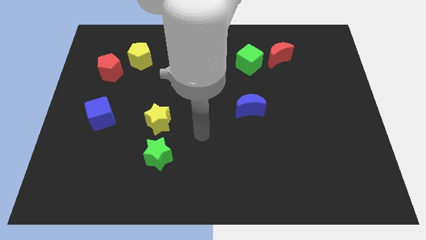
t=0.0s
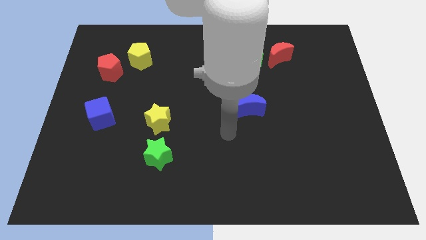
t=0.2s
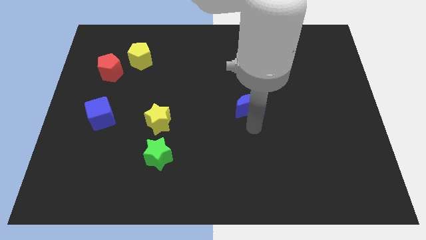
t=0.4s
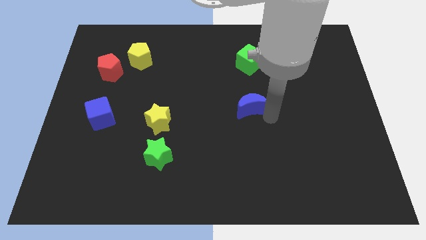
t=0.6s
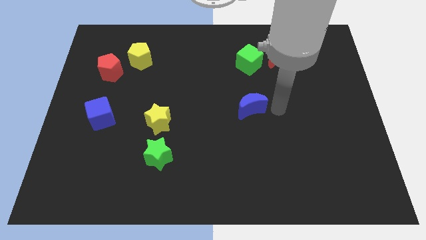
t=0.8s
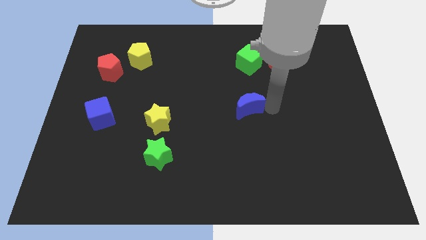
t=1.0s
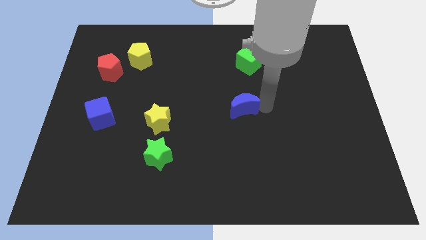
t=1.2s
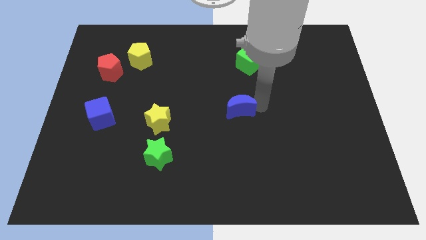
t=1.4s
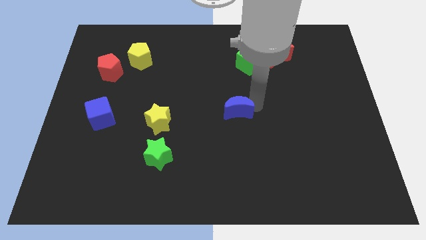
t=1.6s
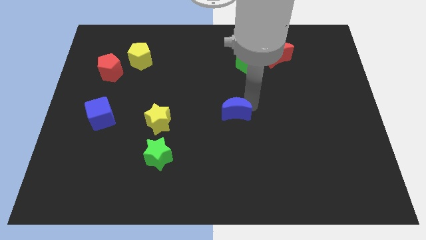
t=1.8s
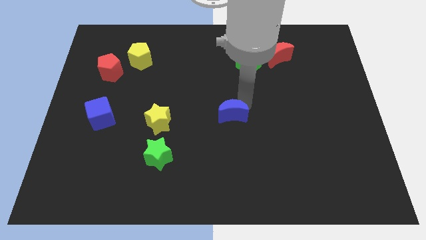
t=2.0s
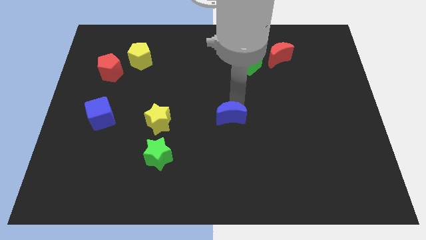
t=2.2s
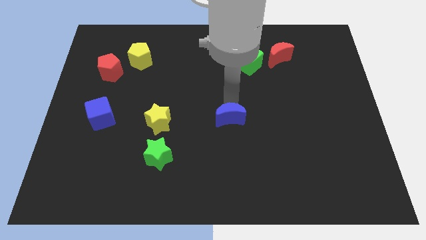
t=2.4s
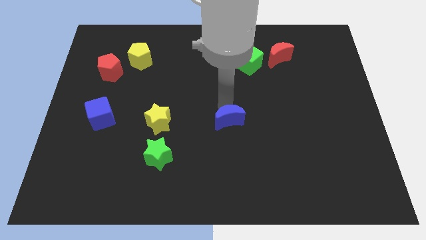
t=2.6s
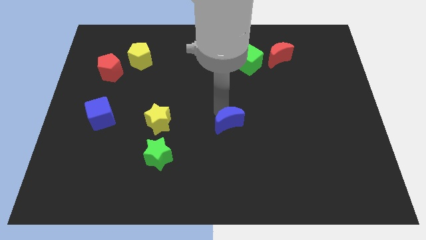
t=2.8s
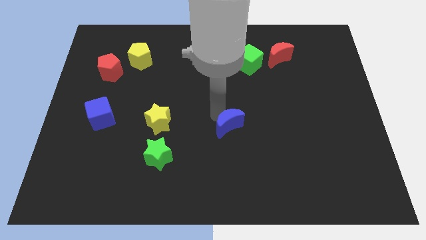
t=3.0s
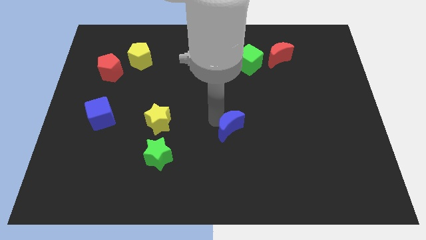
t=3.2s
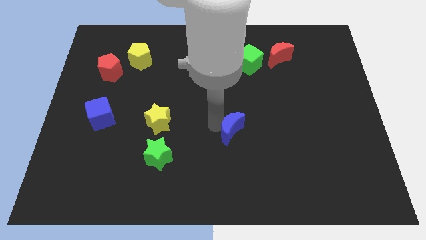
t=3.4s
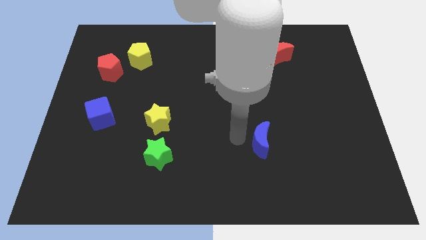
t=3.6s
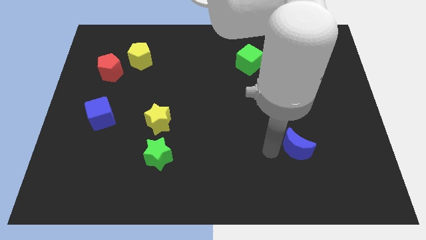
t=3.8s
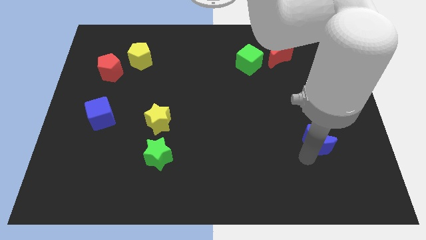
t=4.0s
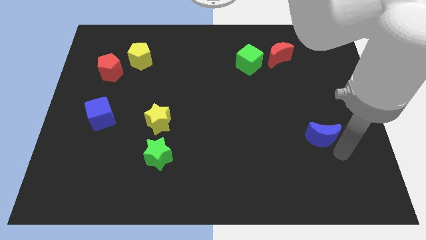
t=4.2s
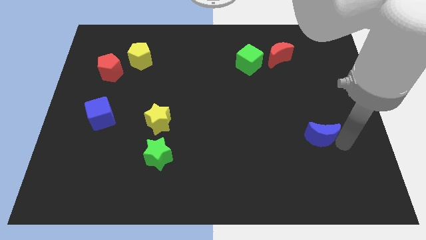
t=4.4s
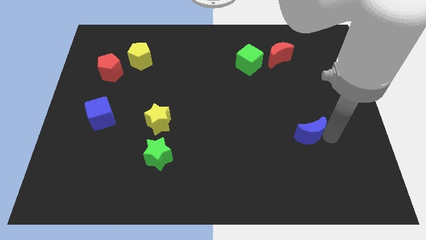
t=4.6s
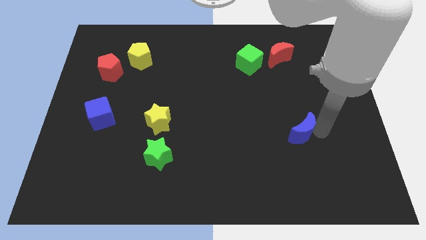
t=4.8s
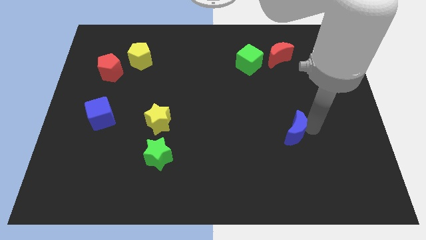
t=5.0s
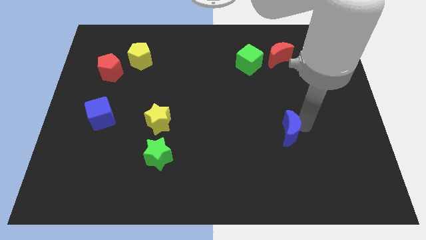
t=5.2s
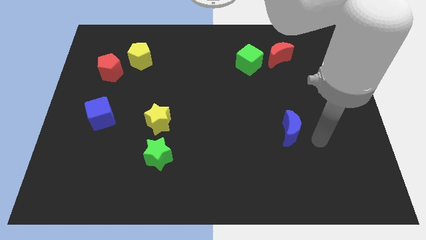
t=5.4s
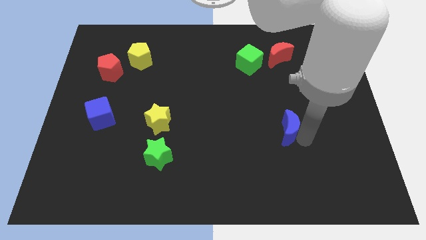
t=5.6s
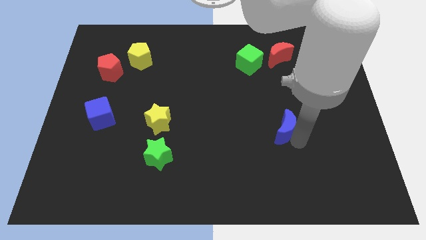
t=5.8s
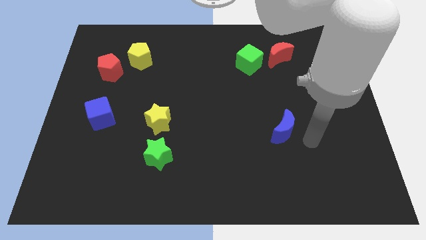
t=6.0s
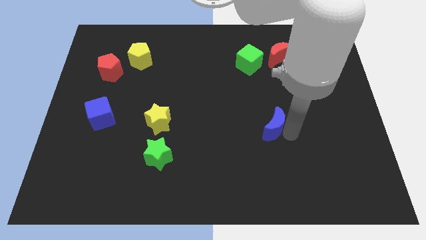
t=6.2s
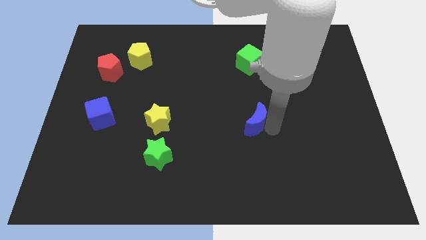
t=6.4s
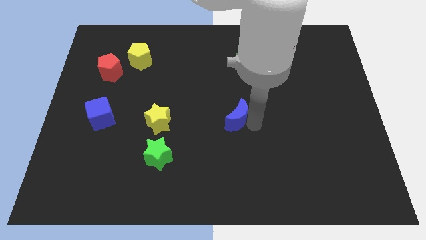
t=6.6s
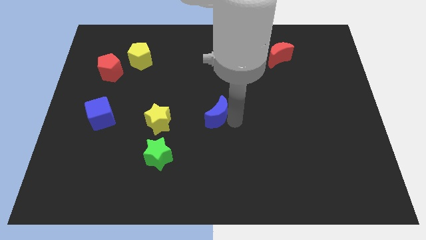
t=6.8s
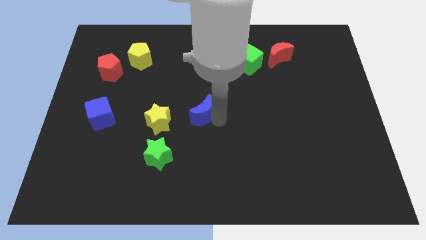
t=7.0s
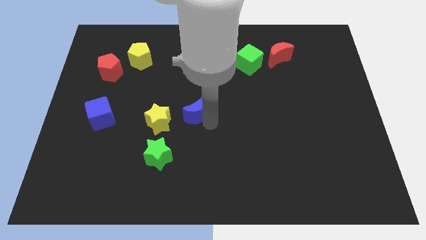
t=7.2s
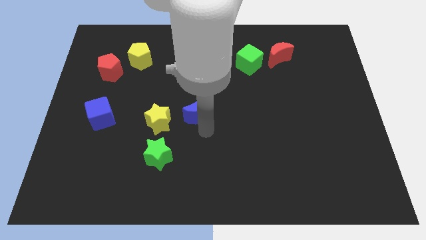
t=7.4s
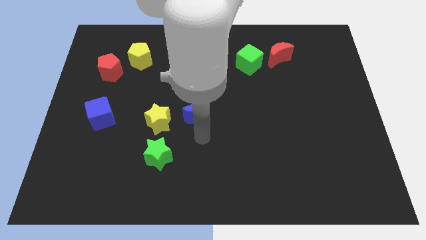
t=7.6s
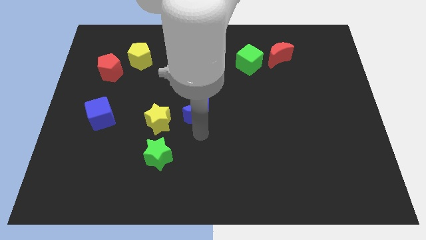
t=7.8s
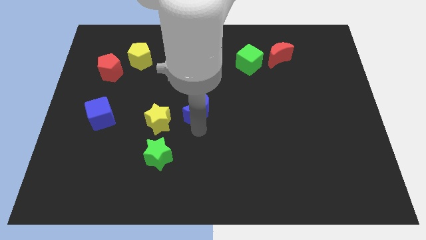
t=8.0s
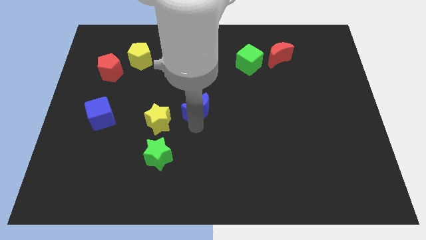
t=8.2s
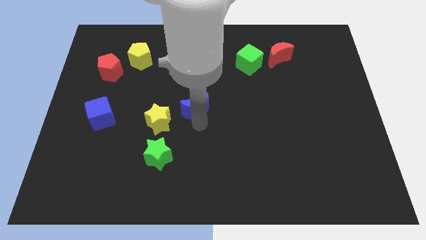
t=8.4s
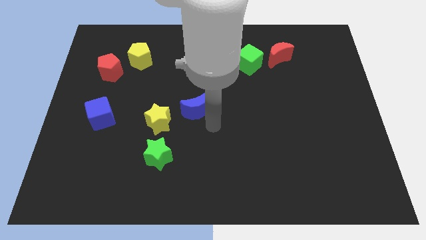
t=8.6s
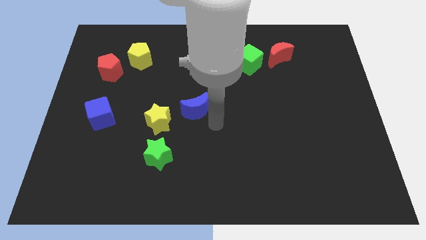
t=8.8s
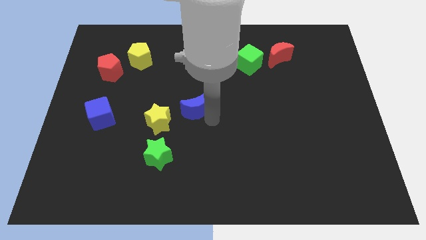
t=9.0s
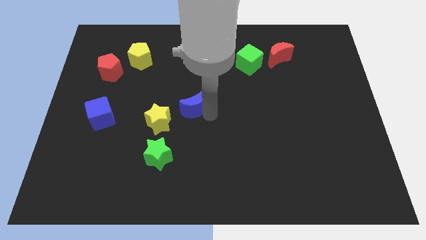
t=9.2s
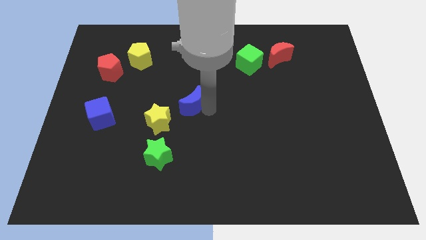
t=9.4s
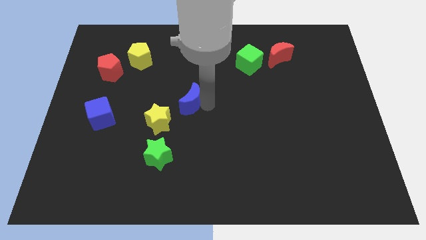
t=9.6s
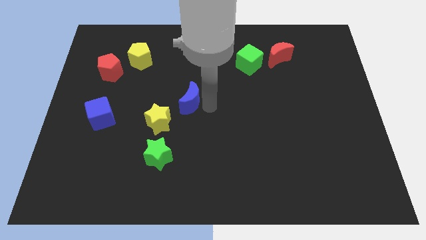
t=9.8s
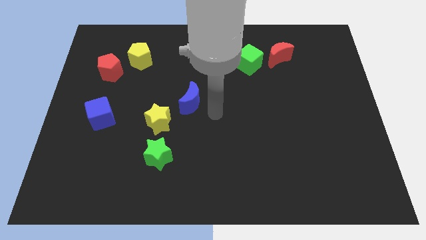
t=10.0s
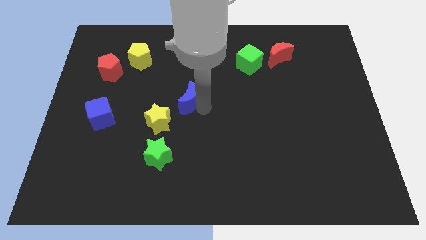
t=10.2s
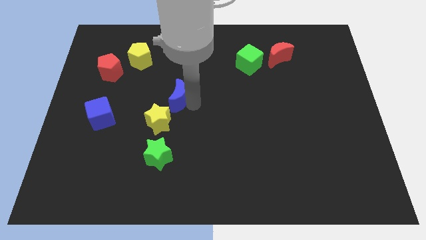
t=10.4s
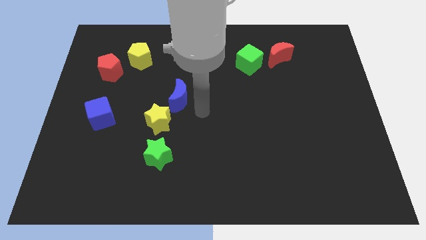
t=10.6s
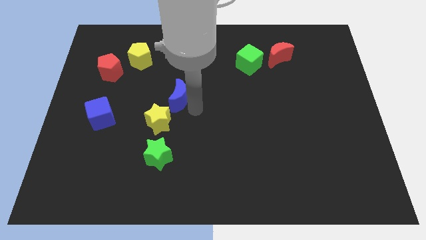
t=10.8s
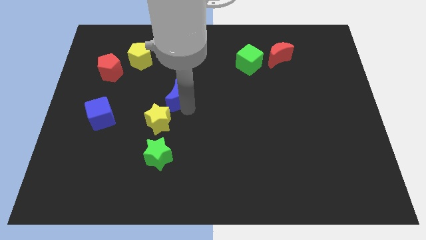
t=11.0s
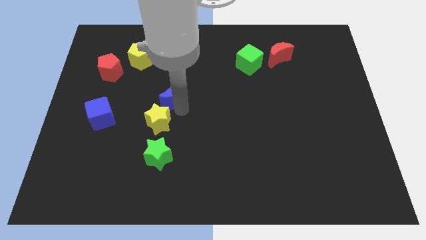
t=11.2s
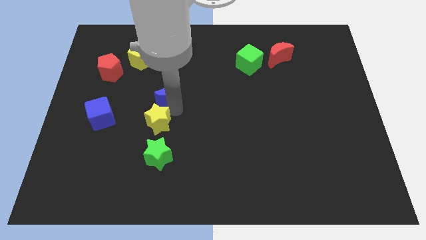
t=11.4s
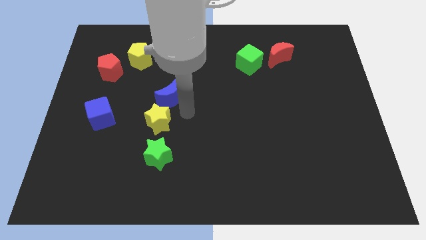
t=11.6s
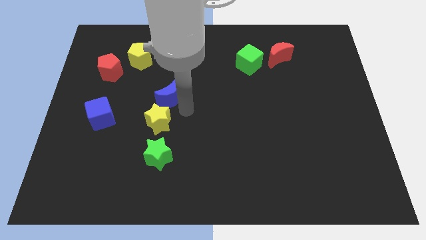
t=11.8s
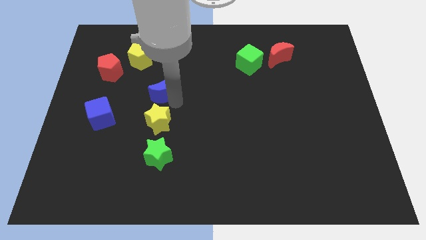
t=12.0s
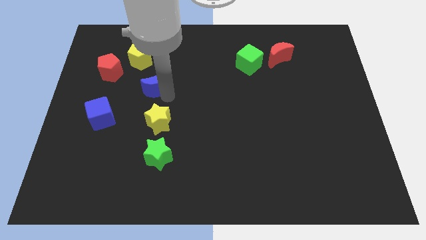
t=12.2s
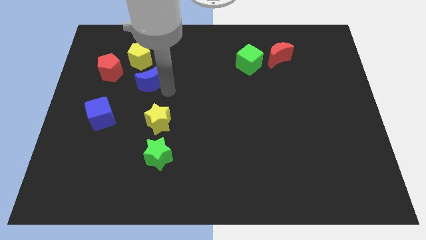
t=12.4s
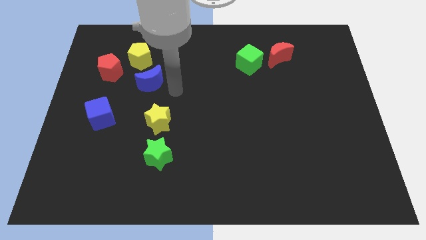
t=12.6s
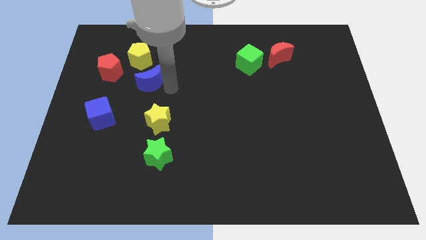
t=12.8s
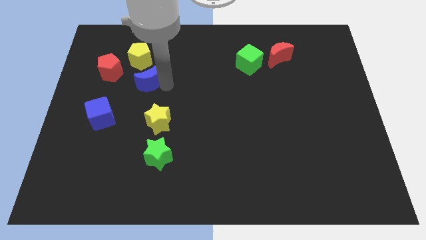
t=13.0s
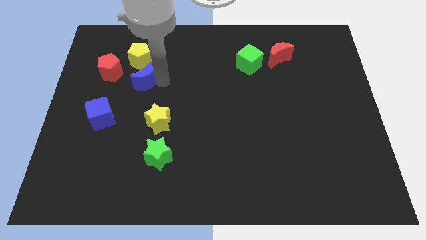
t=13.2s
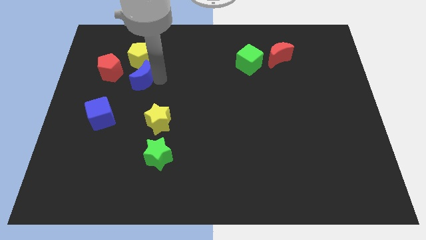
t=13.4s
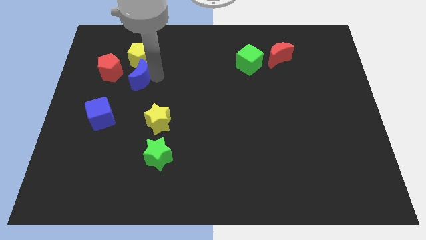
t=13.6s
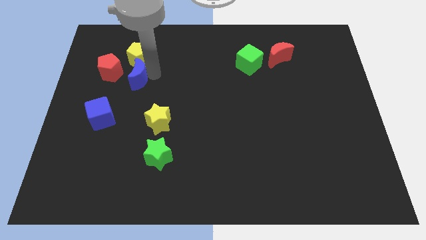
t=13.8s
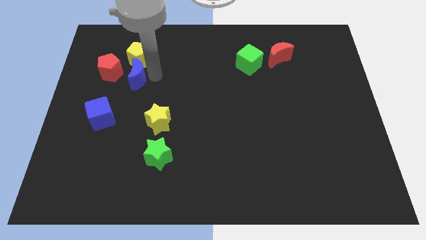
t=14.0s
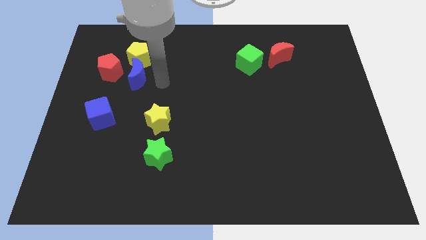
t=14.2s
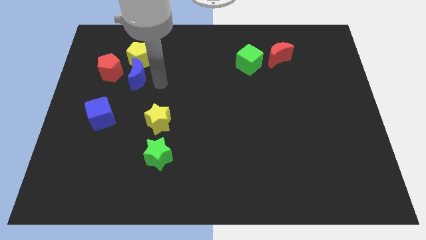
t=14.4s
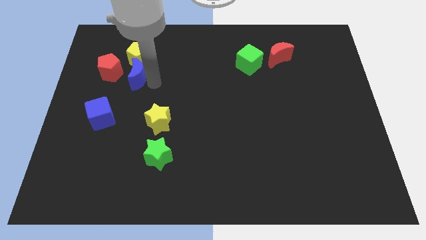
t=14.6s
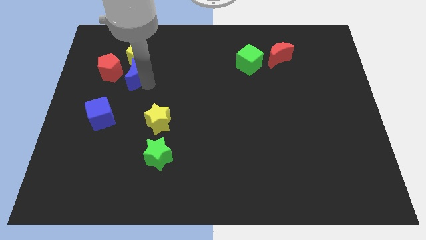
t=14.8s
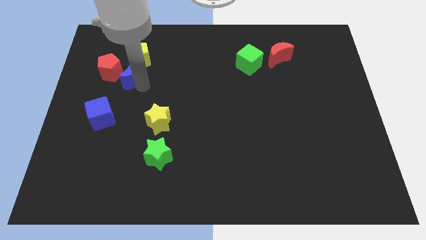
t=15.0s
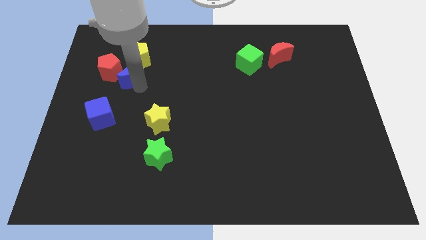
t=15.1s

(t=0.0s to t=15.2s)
move the blue moon towards the red pentagon
